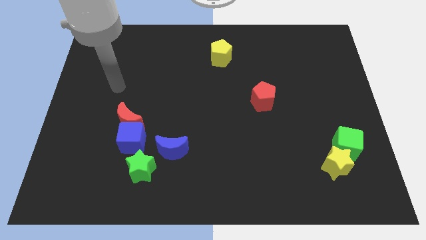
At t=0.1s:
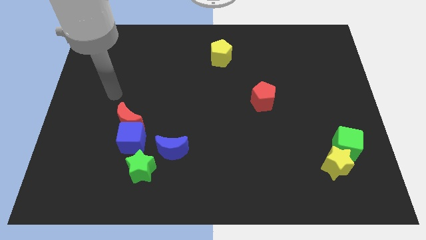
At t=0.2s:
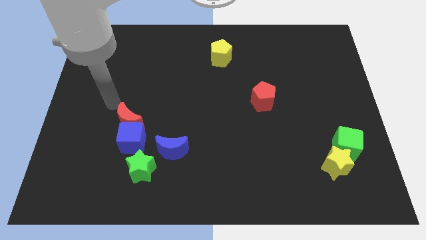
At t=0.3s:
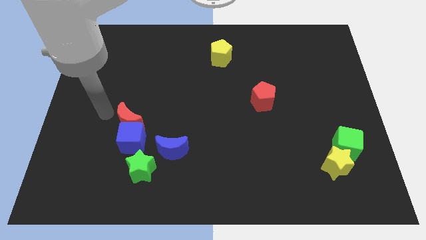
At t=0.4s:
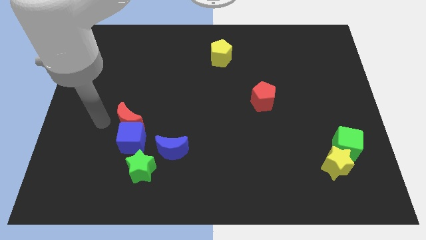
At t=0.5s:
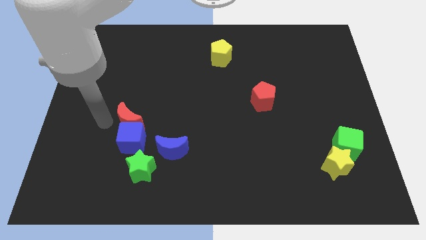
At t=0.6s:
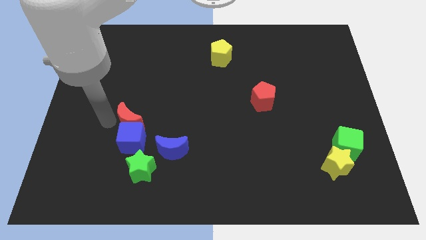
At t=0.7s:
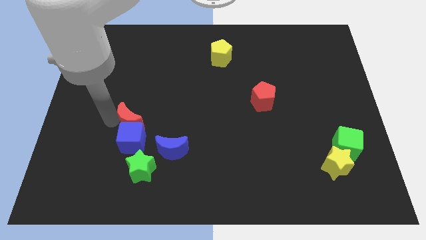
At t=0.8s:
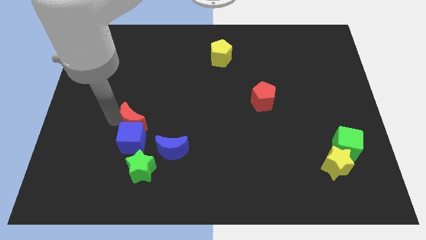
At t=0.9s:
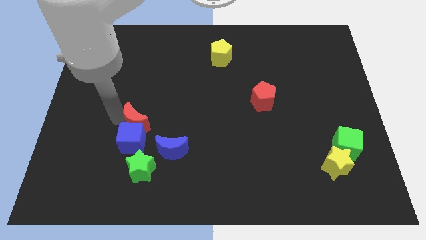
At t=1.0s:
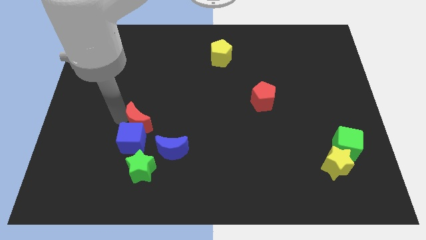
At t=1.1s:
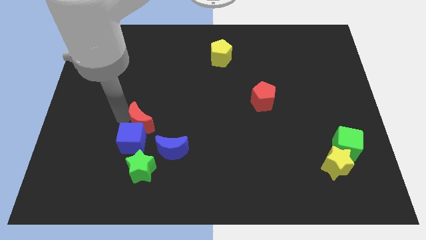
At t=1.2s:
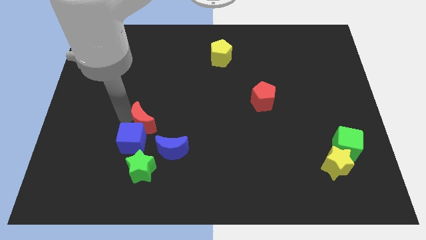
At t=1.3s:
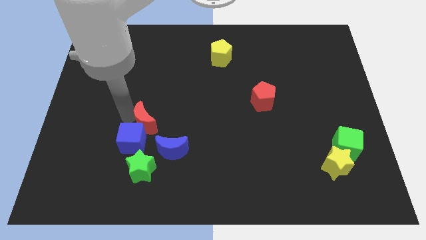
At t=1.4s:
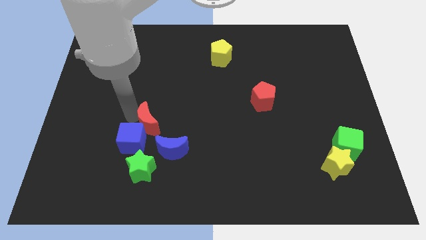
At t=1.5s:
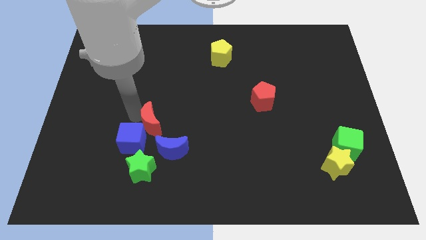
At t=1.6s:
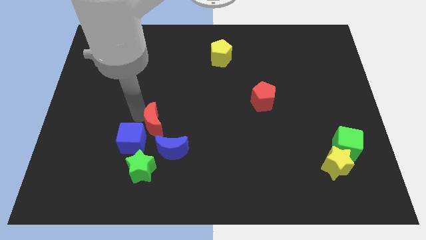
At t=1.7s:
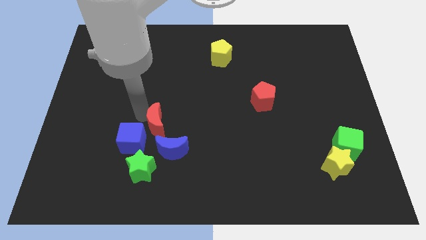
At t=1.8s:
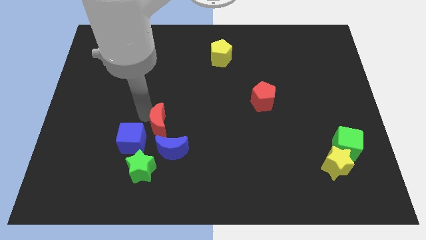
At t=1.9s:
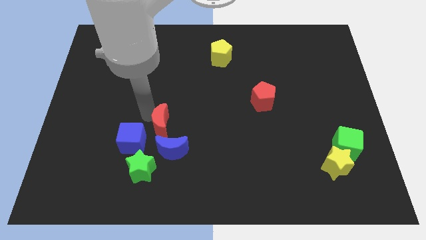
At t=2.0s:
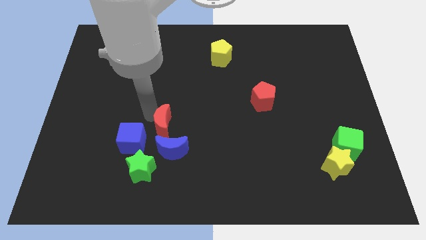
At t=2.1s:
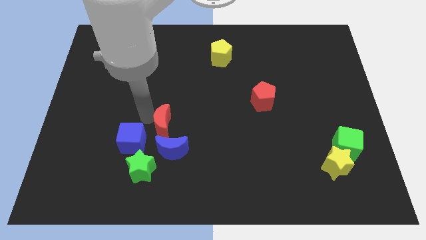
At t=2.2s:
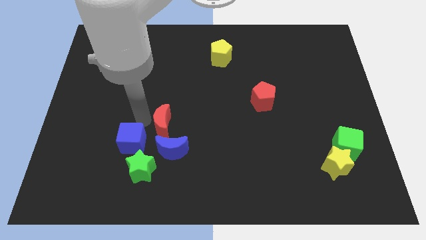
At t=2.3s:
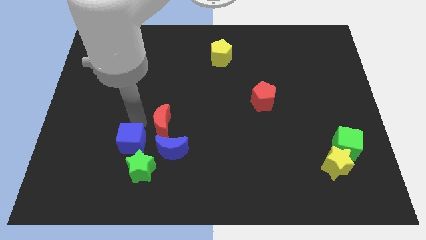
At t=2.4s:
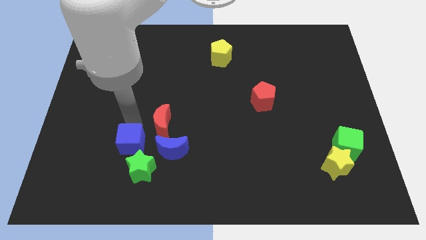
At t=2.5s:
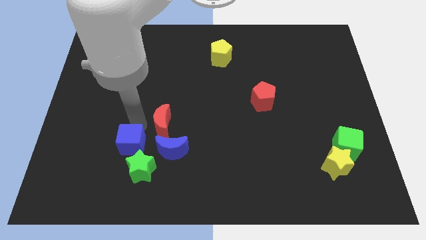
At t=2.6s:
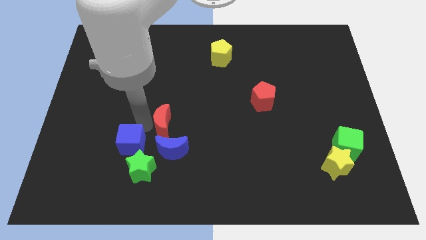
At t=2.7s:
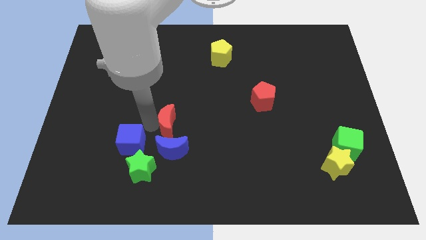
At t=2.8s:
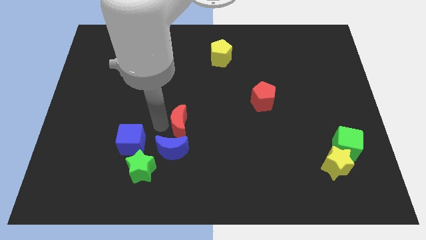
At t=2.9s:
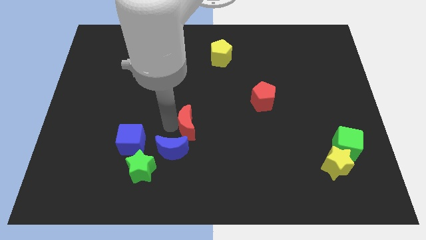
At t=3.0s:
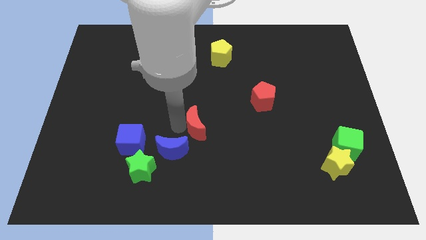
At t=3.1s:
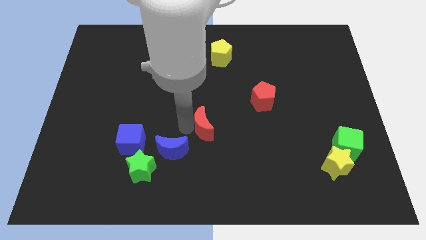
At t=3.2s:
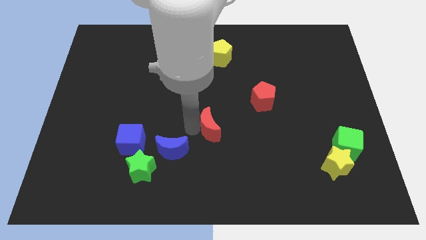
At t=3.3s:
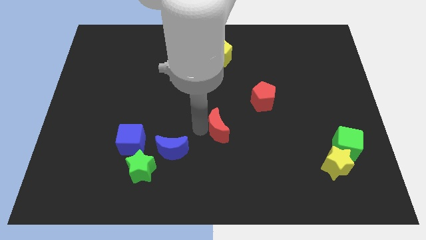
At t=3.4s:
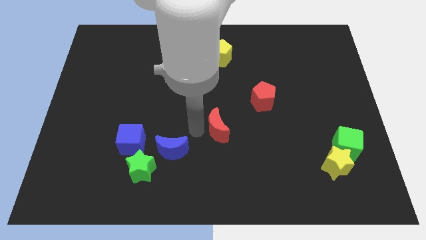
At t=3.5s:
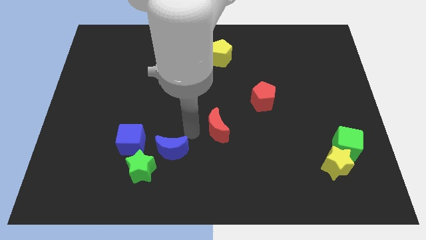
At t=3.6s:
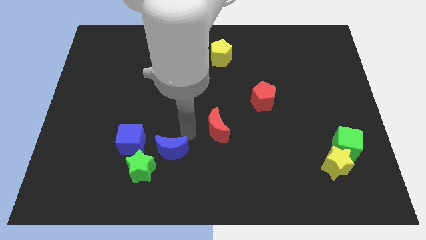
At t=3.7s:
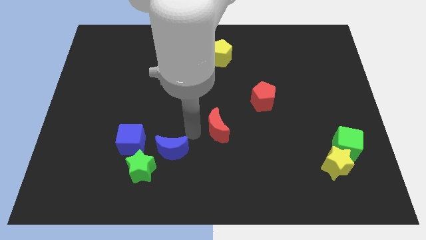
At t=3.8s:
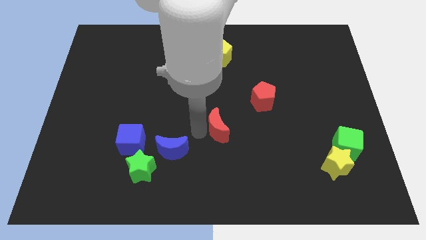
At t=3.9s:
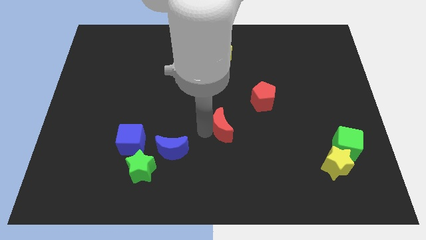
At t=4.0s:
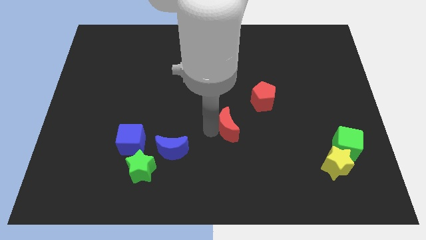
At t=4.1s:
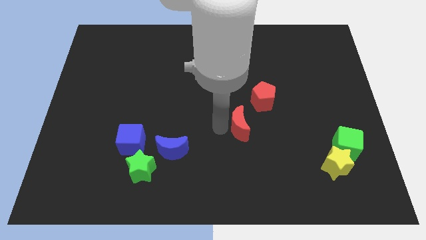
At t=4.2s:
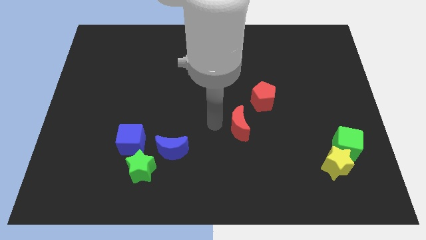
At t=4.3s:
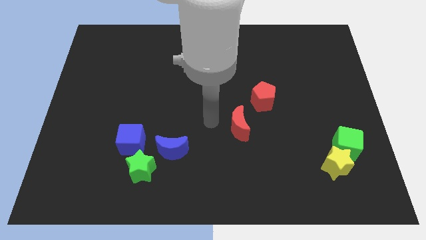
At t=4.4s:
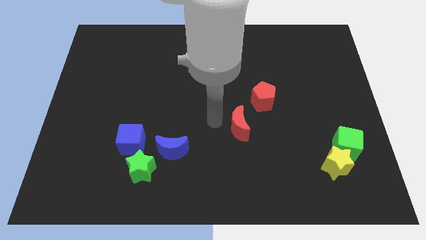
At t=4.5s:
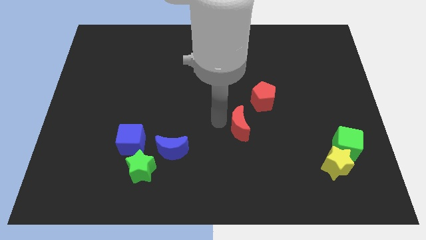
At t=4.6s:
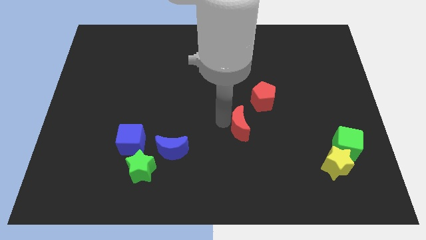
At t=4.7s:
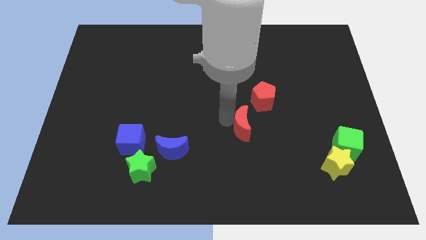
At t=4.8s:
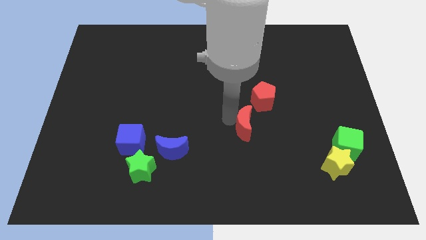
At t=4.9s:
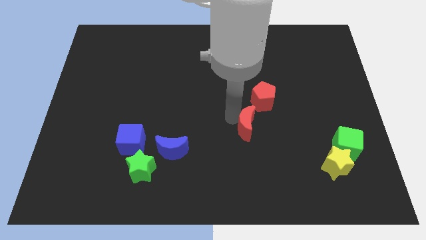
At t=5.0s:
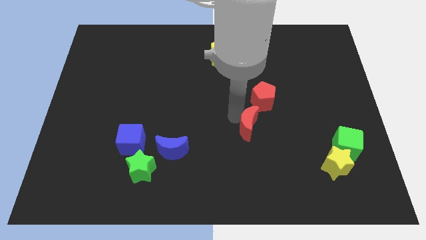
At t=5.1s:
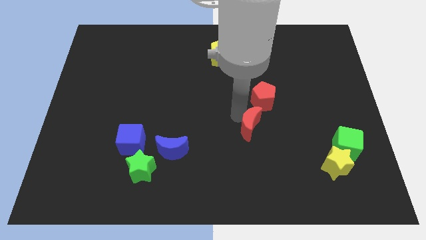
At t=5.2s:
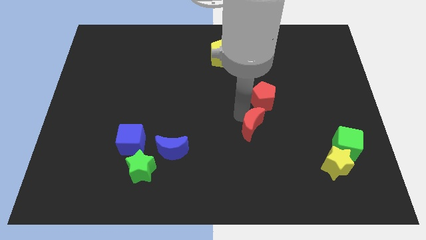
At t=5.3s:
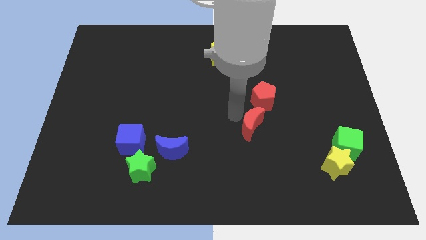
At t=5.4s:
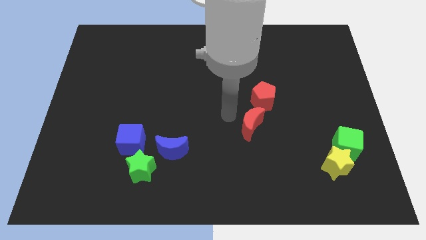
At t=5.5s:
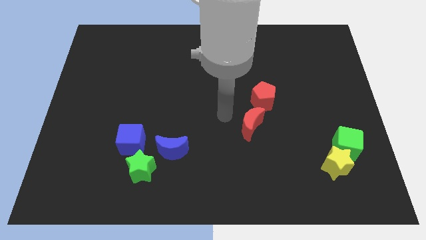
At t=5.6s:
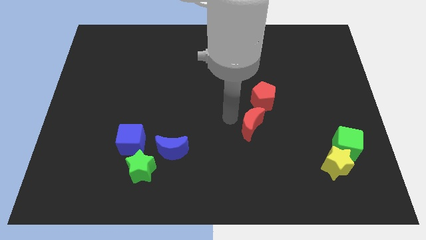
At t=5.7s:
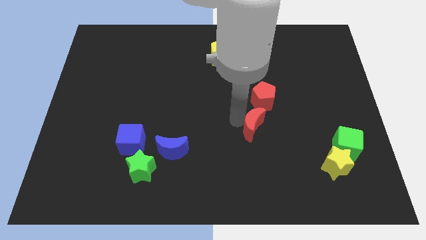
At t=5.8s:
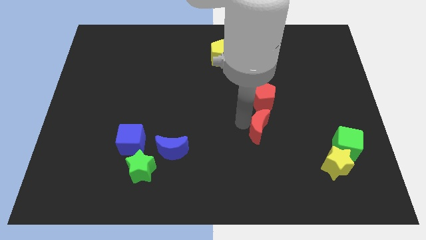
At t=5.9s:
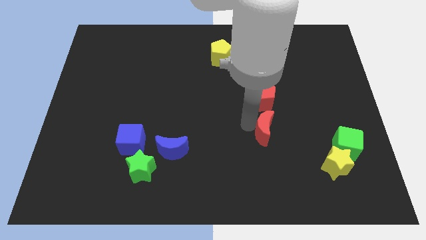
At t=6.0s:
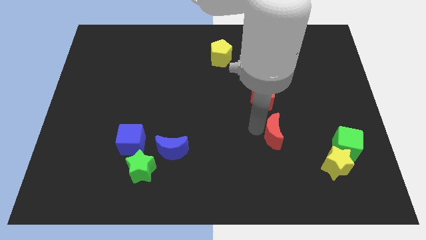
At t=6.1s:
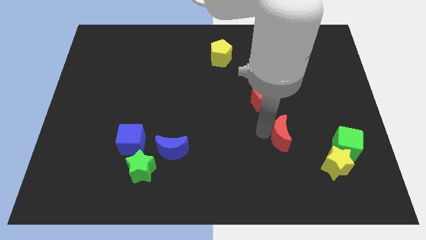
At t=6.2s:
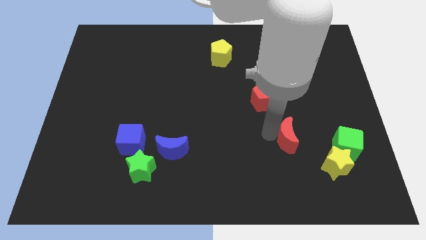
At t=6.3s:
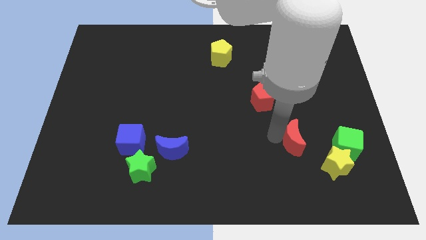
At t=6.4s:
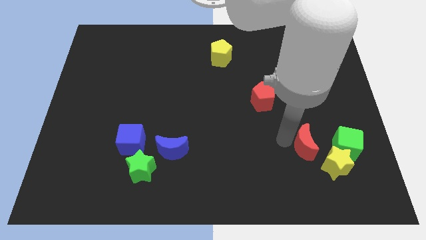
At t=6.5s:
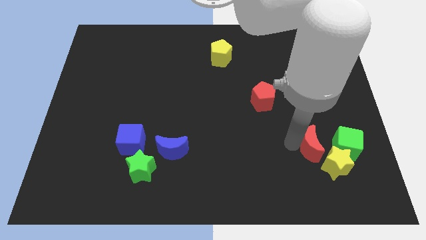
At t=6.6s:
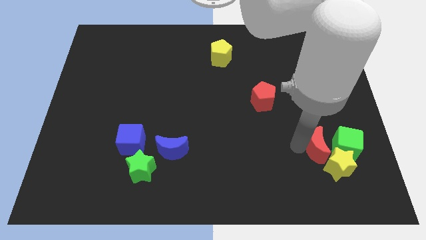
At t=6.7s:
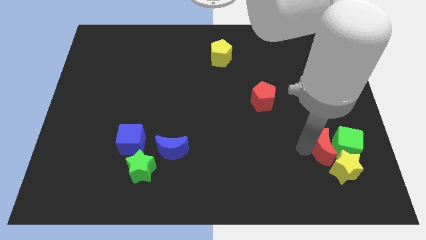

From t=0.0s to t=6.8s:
push the red moon towards the green cube
